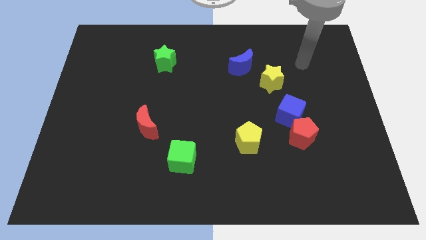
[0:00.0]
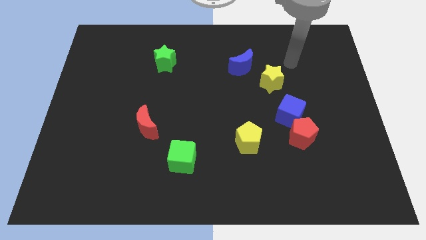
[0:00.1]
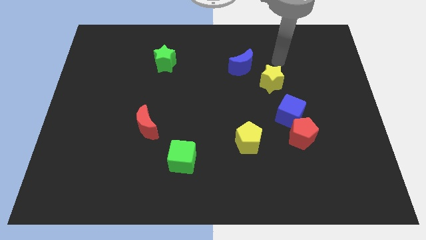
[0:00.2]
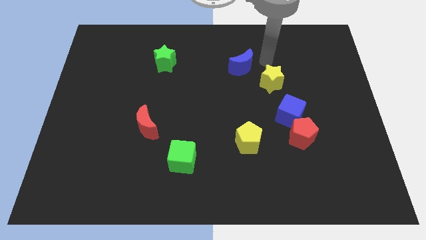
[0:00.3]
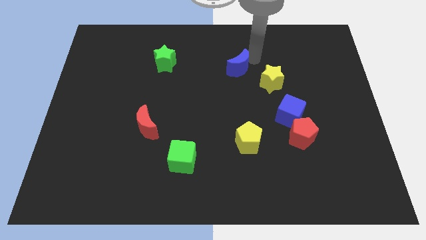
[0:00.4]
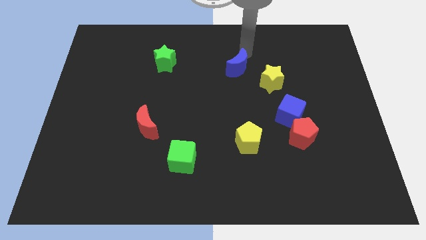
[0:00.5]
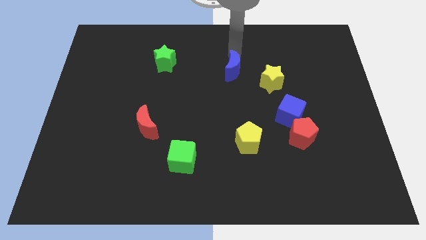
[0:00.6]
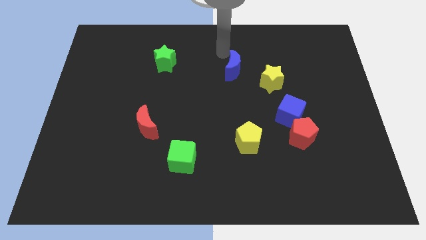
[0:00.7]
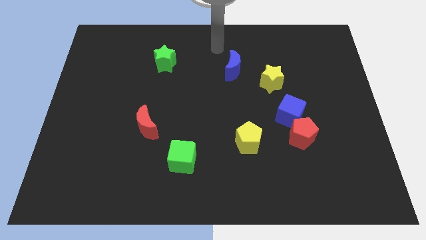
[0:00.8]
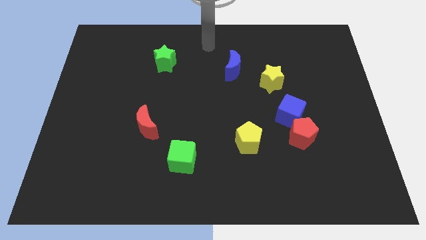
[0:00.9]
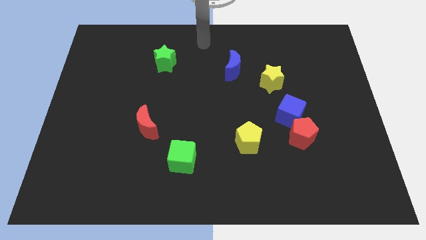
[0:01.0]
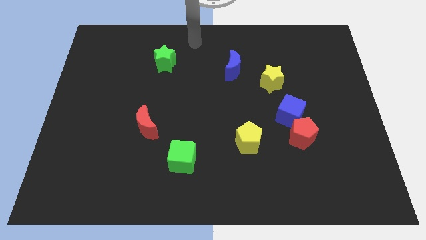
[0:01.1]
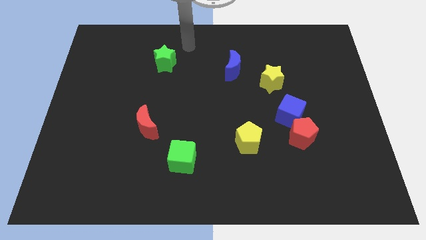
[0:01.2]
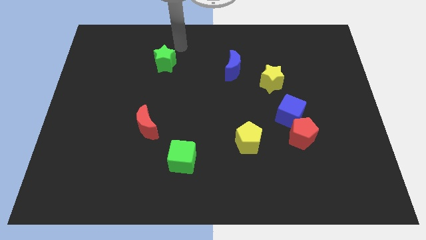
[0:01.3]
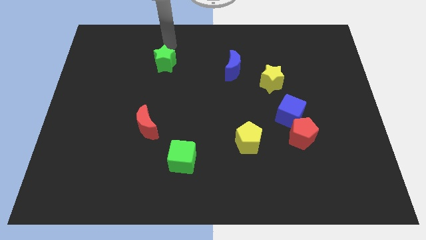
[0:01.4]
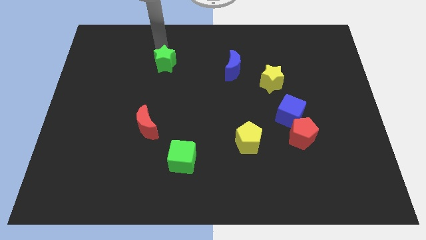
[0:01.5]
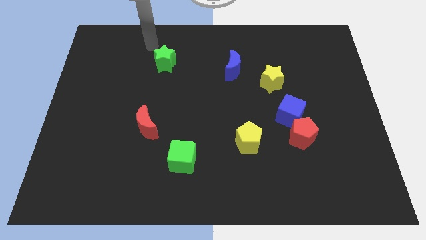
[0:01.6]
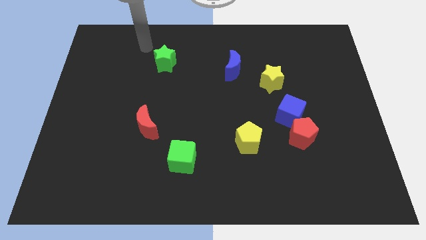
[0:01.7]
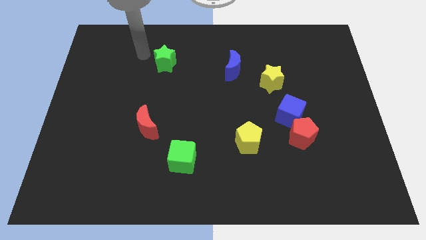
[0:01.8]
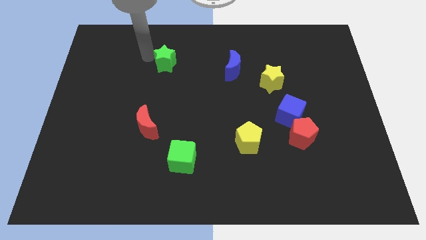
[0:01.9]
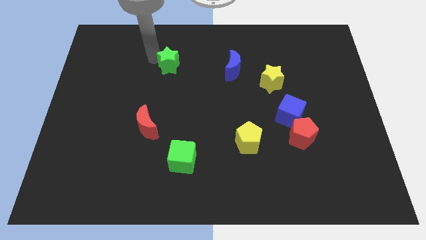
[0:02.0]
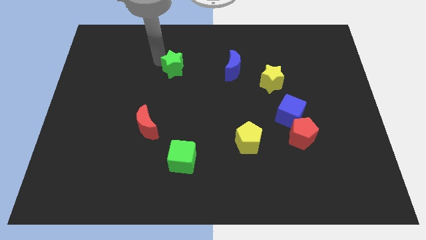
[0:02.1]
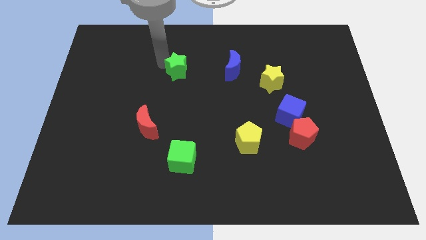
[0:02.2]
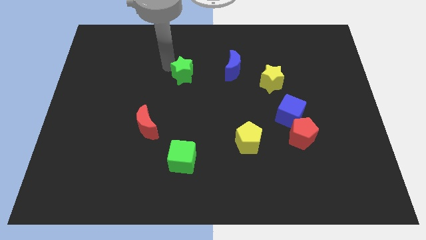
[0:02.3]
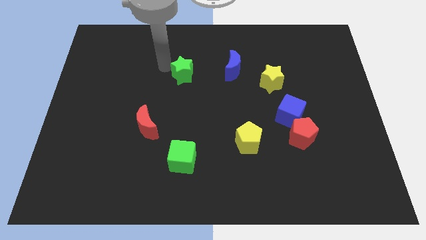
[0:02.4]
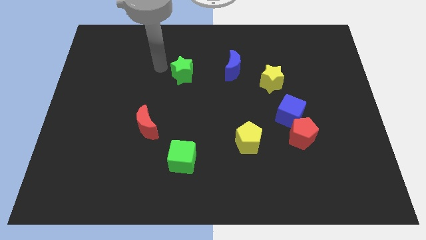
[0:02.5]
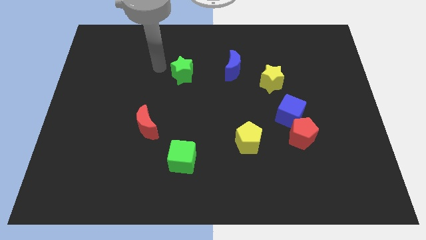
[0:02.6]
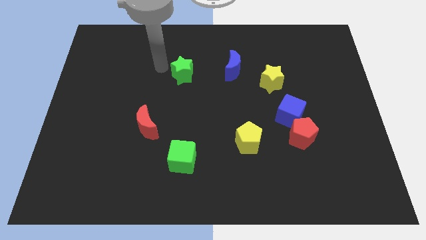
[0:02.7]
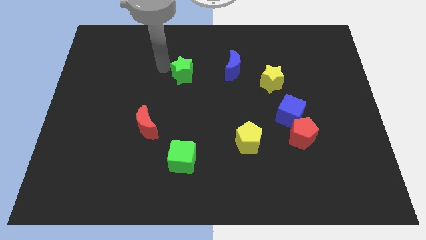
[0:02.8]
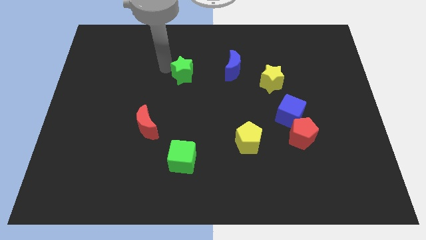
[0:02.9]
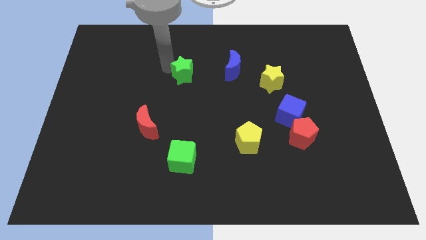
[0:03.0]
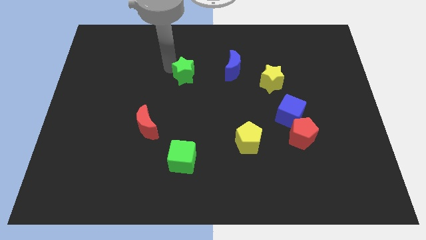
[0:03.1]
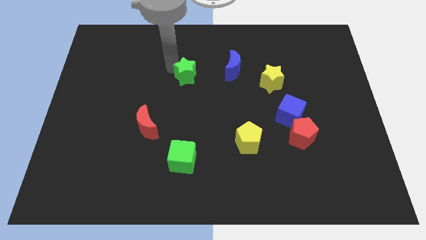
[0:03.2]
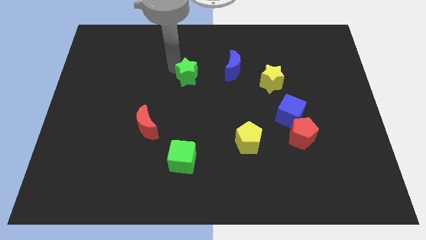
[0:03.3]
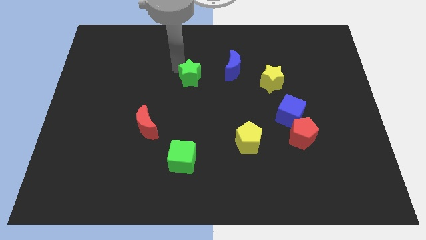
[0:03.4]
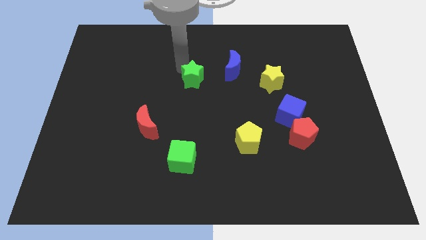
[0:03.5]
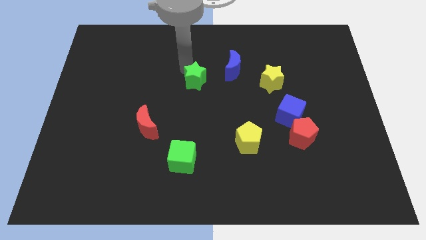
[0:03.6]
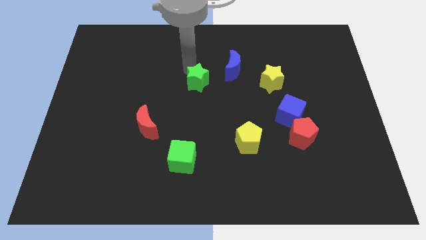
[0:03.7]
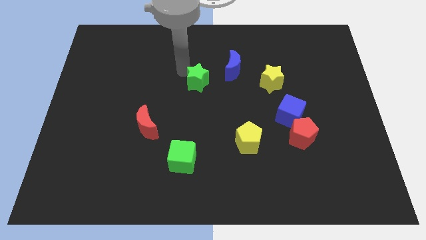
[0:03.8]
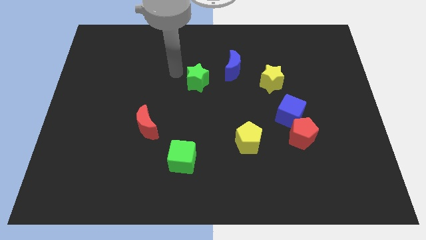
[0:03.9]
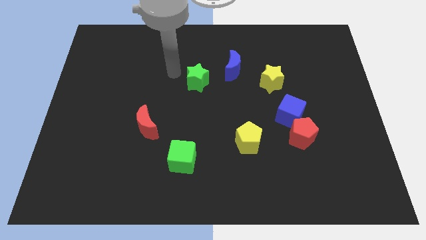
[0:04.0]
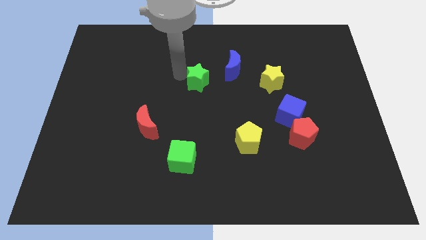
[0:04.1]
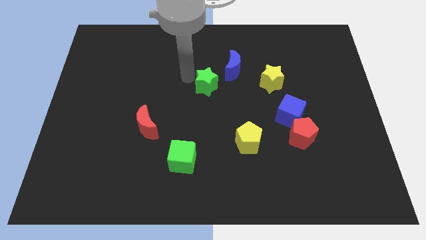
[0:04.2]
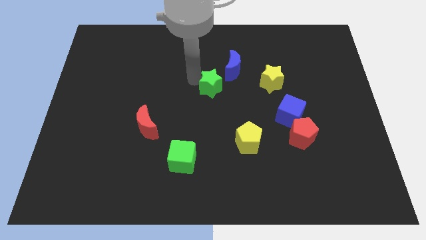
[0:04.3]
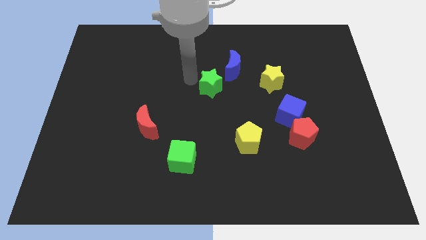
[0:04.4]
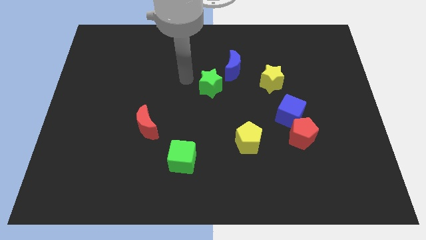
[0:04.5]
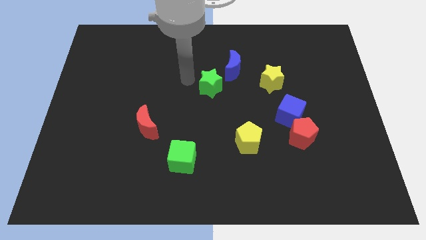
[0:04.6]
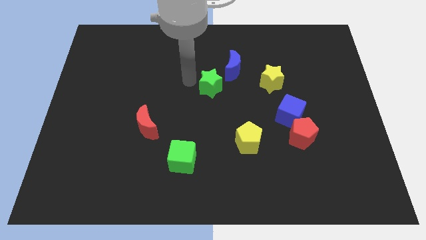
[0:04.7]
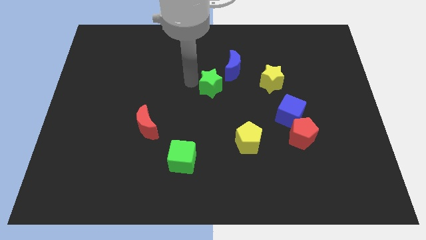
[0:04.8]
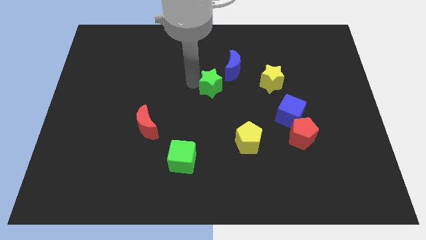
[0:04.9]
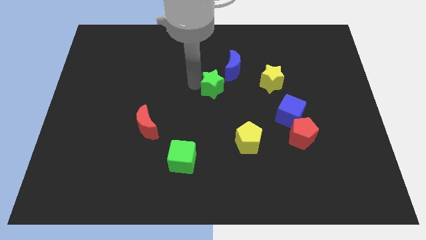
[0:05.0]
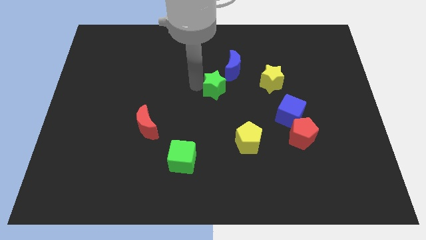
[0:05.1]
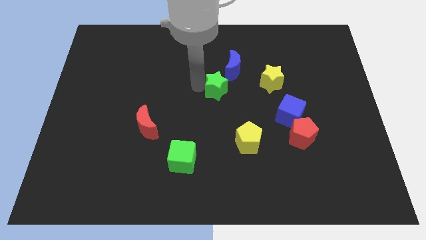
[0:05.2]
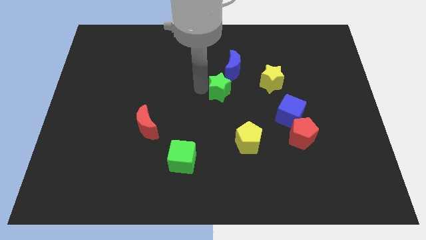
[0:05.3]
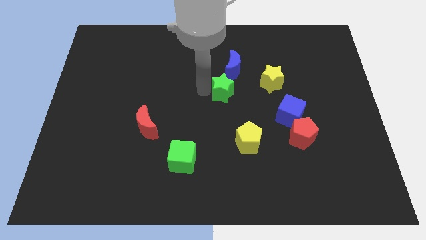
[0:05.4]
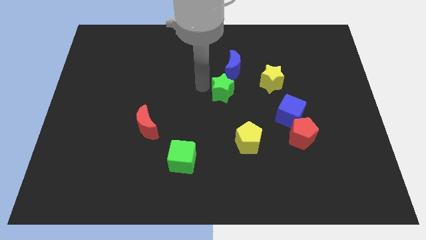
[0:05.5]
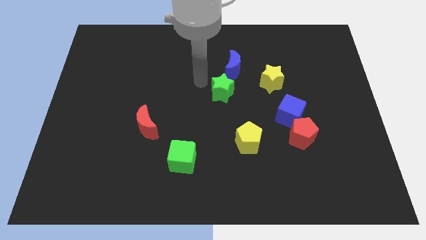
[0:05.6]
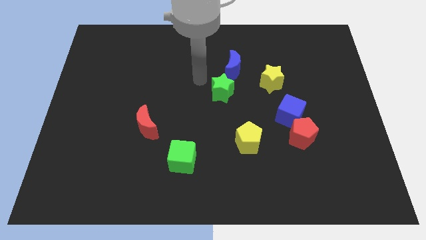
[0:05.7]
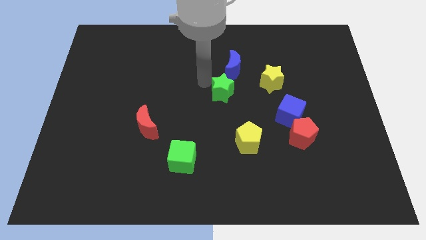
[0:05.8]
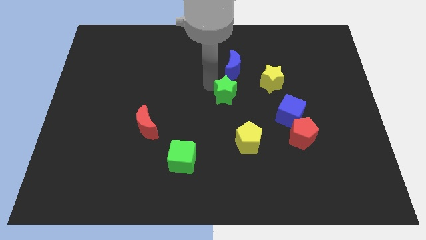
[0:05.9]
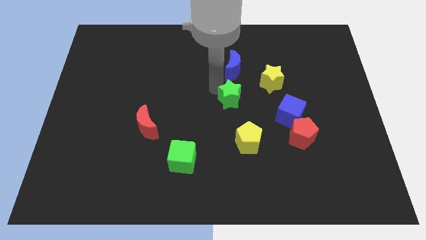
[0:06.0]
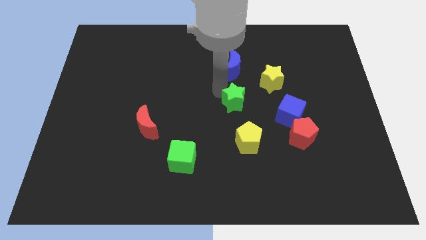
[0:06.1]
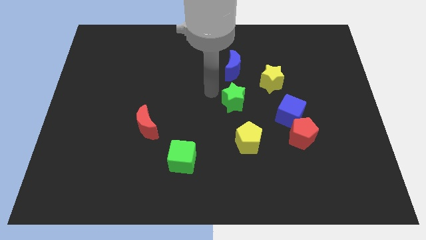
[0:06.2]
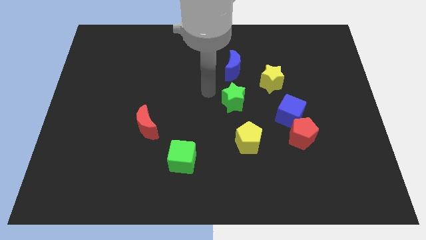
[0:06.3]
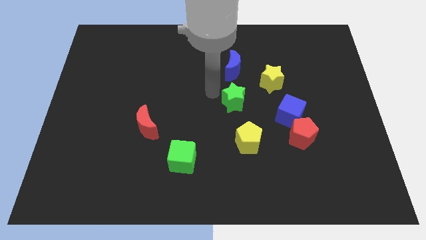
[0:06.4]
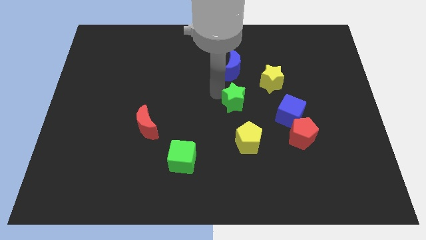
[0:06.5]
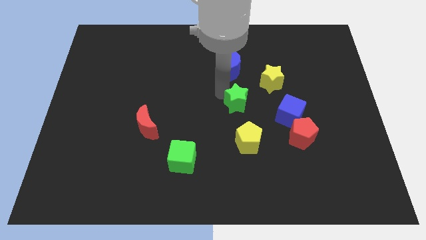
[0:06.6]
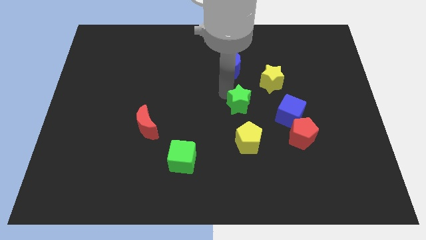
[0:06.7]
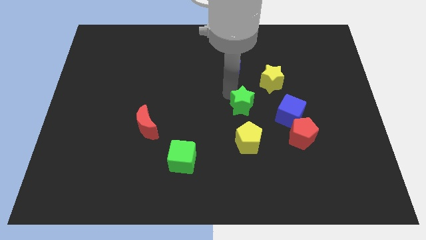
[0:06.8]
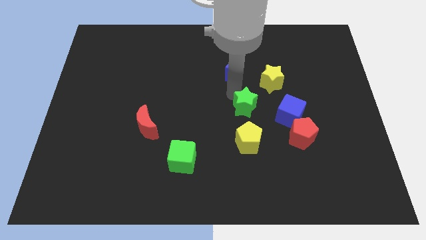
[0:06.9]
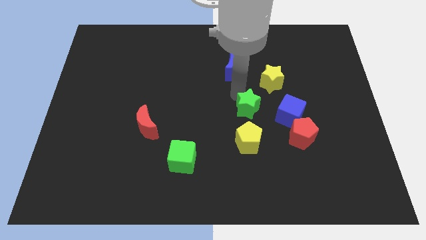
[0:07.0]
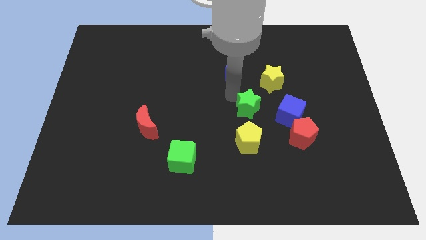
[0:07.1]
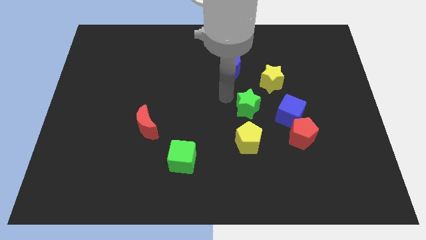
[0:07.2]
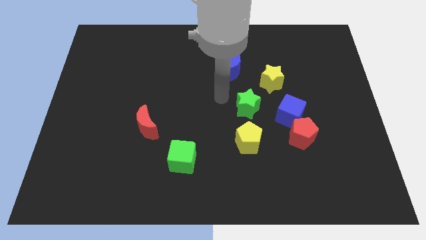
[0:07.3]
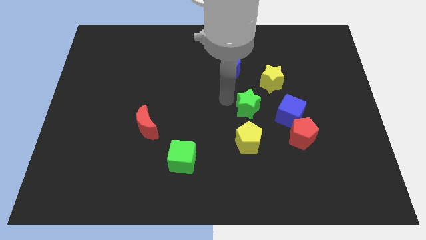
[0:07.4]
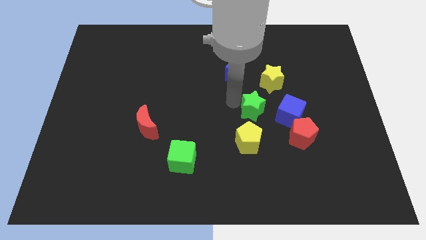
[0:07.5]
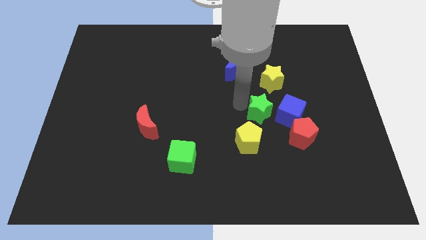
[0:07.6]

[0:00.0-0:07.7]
put the green star diagonally up and to the left of the red pentagon

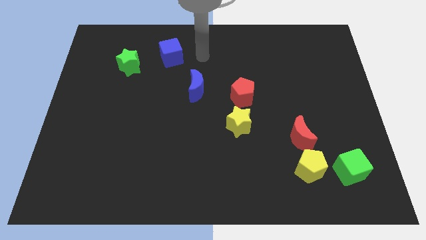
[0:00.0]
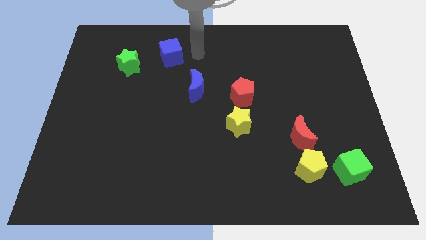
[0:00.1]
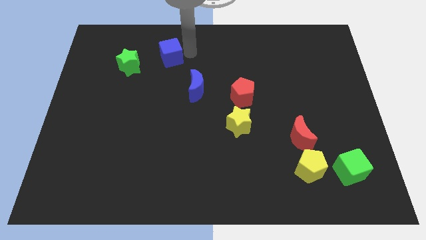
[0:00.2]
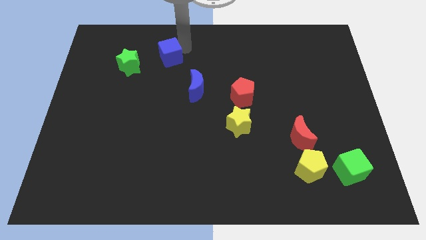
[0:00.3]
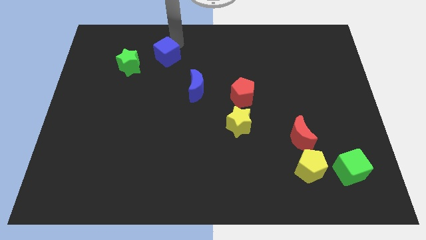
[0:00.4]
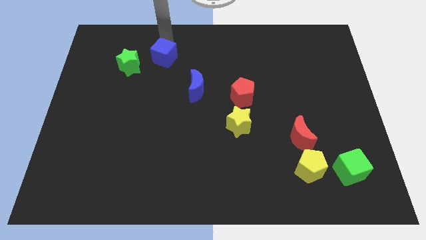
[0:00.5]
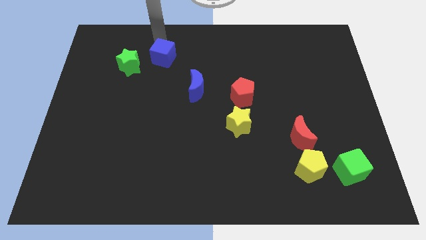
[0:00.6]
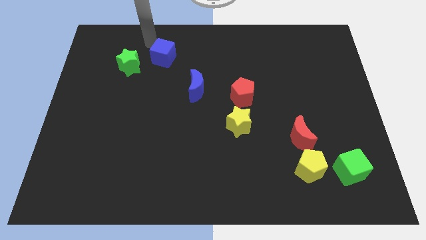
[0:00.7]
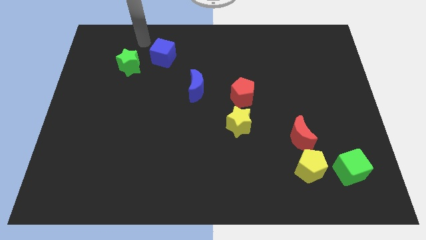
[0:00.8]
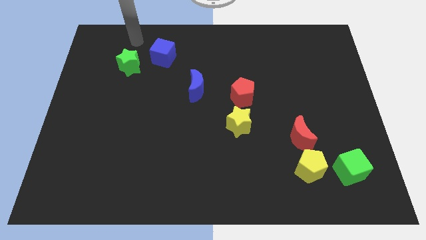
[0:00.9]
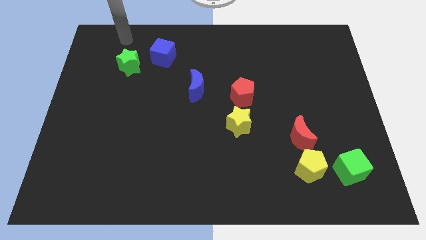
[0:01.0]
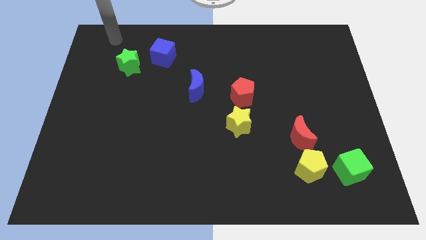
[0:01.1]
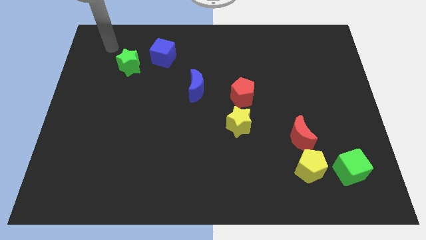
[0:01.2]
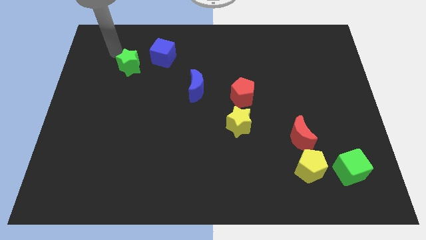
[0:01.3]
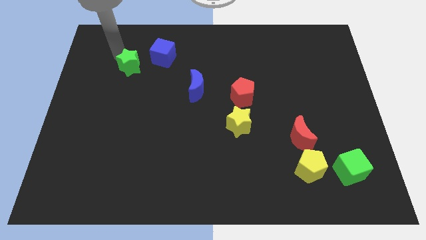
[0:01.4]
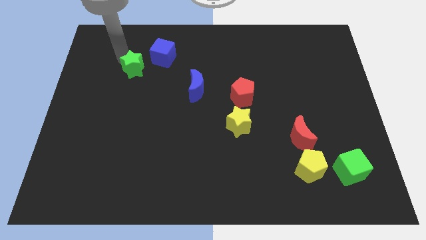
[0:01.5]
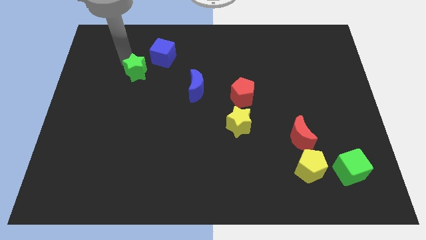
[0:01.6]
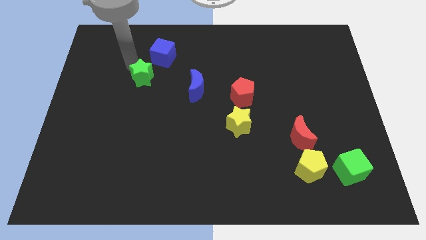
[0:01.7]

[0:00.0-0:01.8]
put the green star to the left of the blue moon
